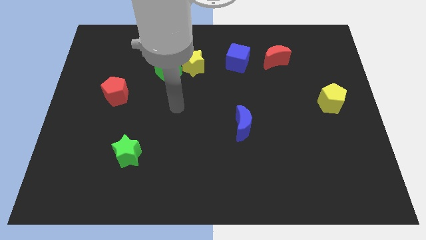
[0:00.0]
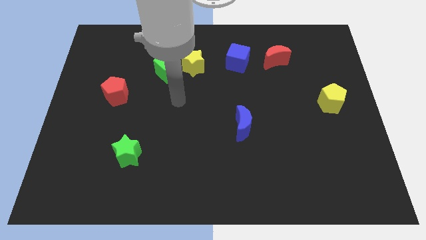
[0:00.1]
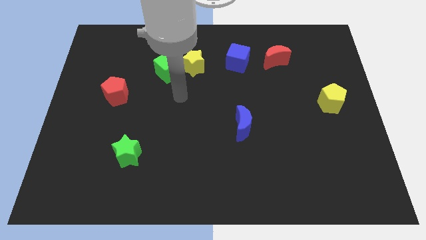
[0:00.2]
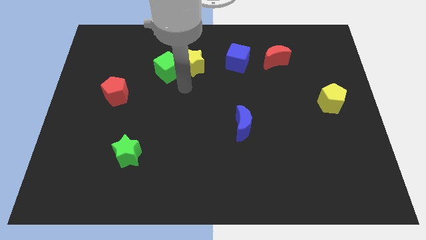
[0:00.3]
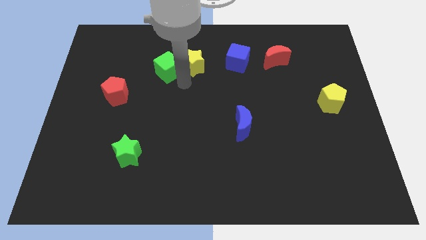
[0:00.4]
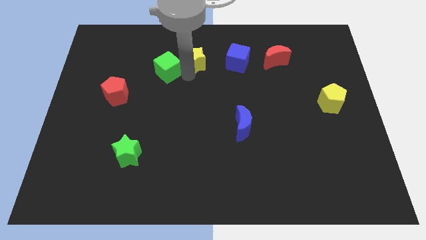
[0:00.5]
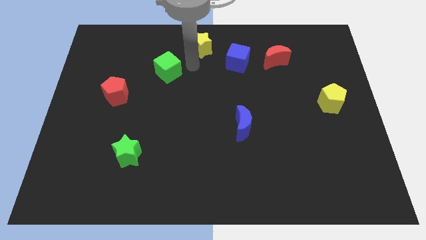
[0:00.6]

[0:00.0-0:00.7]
pull the green cube apart from the yellow star

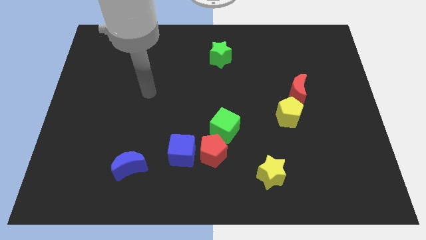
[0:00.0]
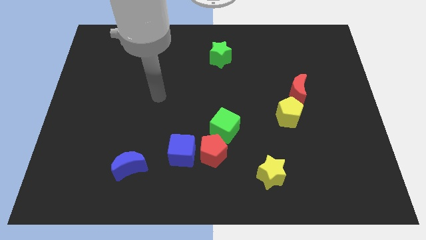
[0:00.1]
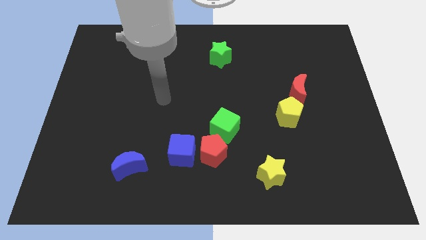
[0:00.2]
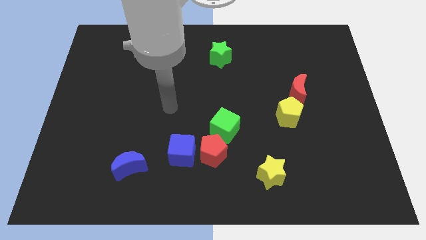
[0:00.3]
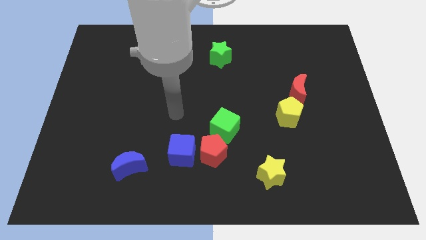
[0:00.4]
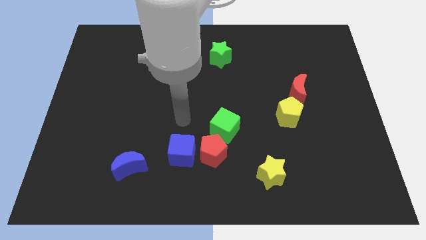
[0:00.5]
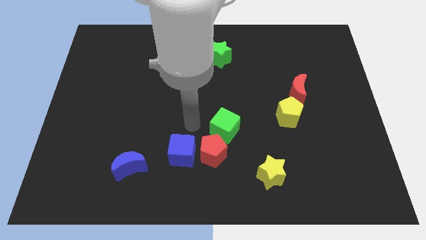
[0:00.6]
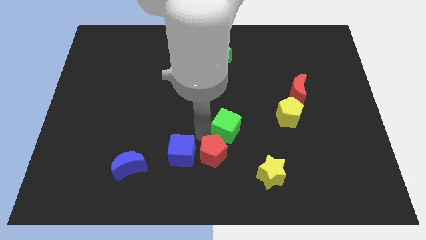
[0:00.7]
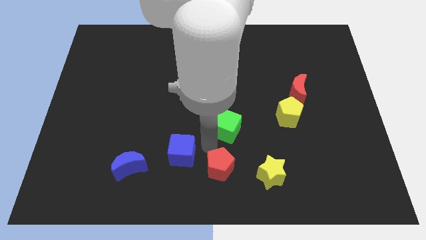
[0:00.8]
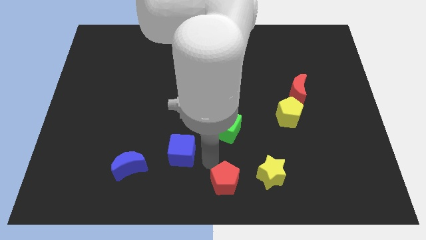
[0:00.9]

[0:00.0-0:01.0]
move the blue cube away from the red pentagon

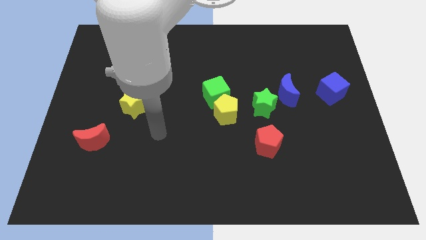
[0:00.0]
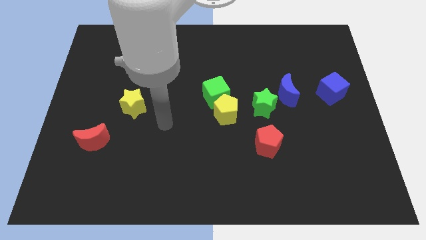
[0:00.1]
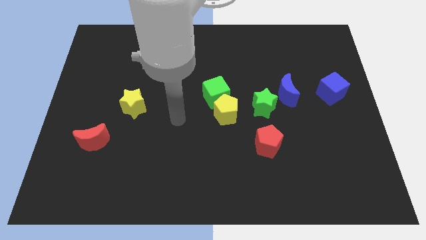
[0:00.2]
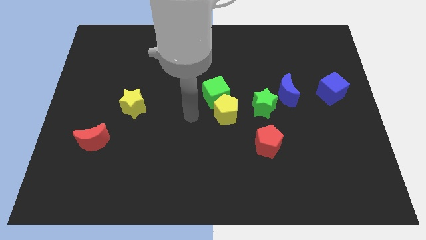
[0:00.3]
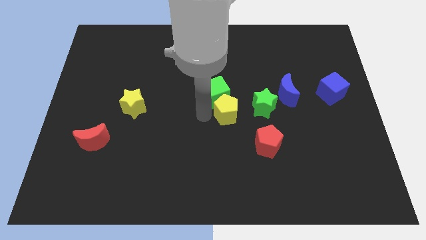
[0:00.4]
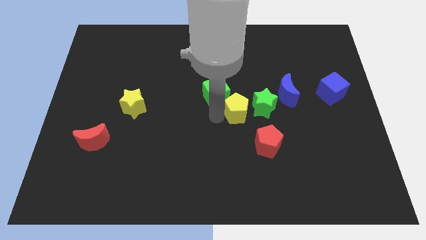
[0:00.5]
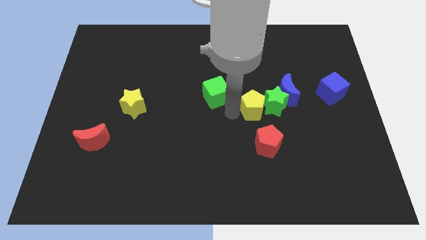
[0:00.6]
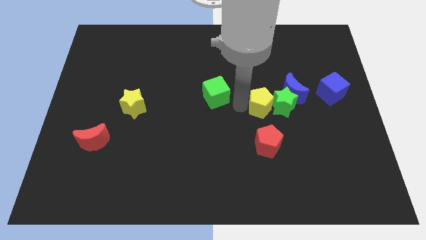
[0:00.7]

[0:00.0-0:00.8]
pull the green cube apart from the yellow pentagon

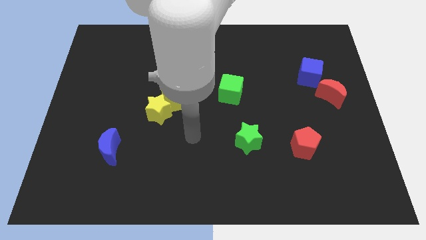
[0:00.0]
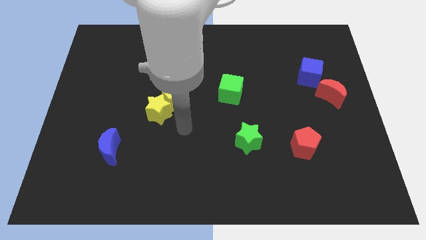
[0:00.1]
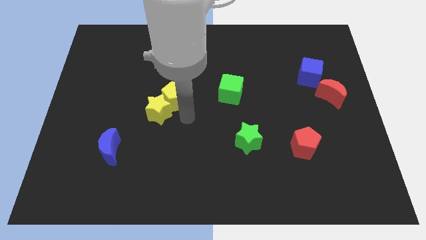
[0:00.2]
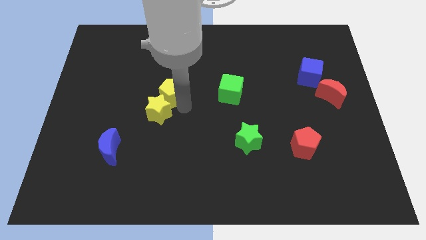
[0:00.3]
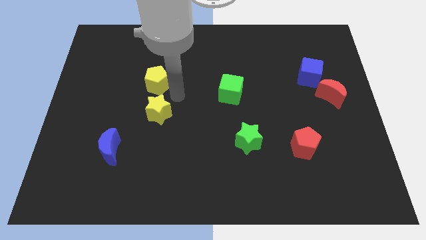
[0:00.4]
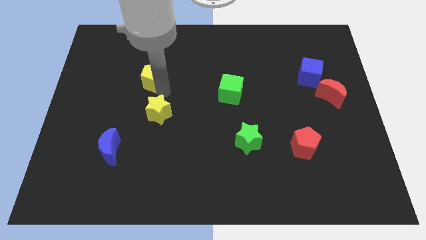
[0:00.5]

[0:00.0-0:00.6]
move the yellow star away from the yellow pentagon

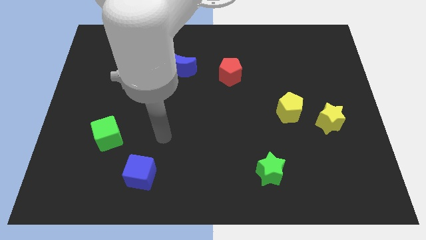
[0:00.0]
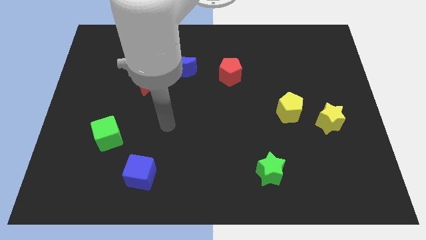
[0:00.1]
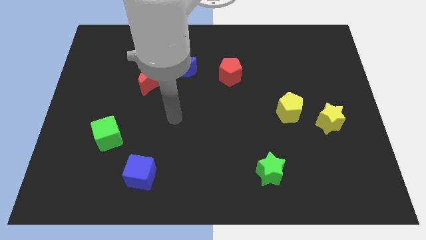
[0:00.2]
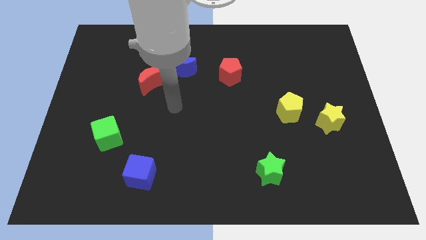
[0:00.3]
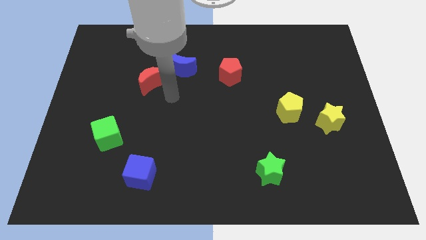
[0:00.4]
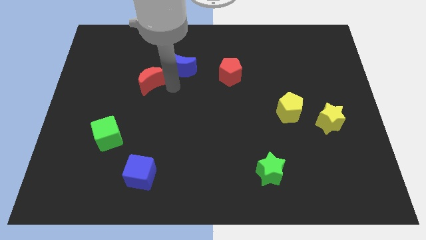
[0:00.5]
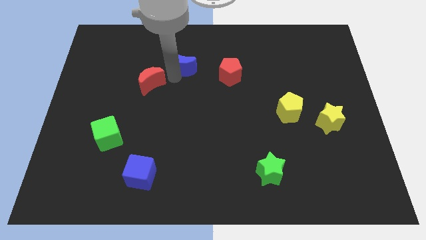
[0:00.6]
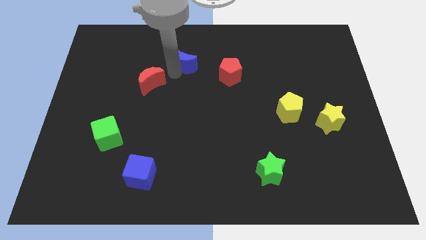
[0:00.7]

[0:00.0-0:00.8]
move the red moon away from the blue moon

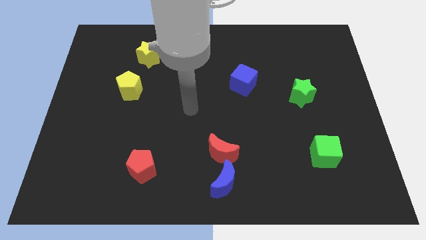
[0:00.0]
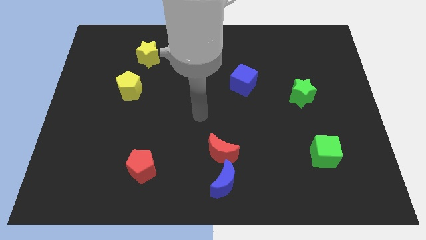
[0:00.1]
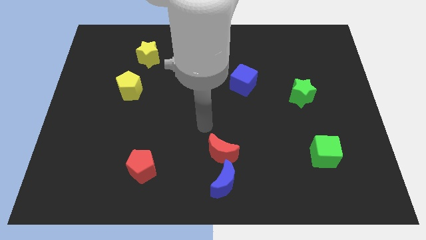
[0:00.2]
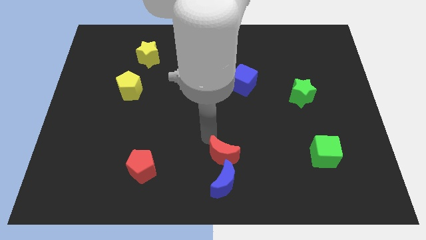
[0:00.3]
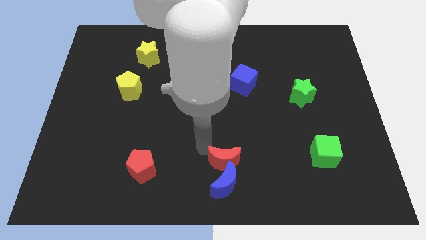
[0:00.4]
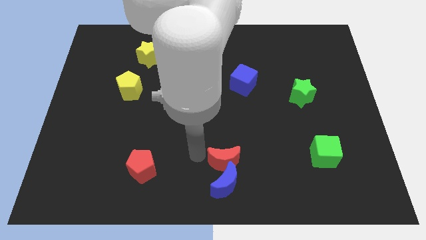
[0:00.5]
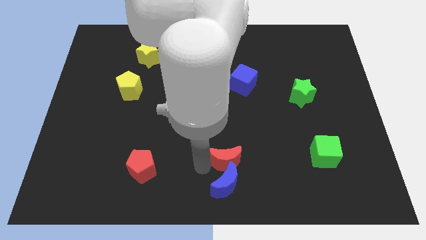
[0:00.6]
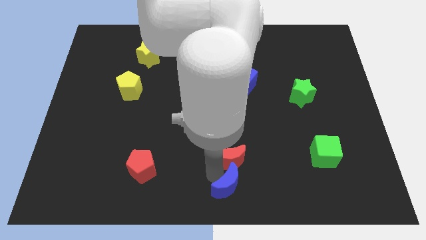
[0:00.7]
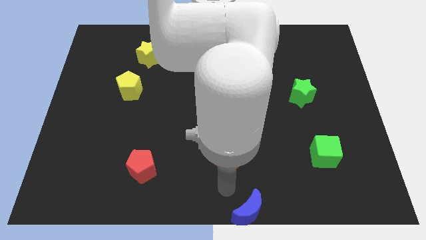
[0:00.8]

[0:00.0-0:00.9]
pull the red moon apart from the blue moon

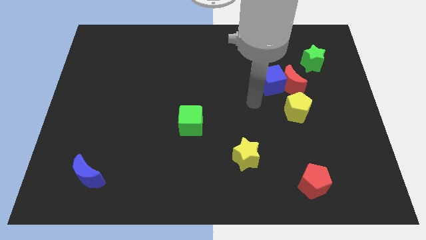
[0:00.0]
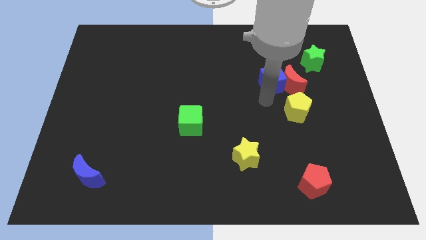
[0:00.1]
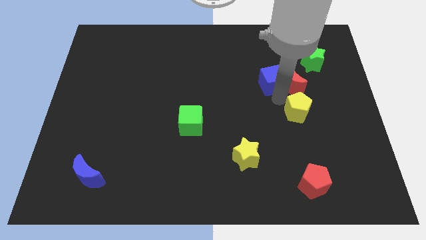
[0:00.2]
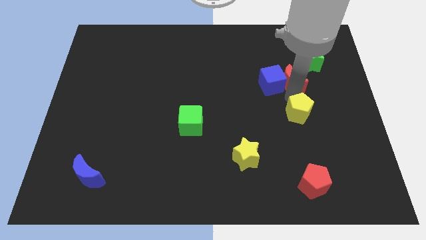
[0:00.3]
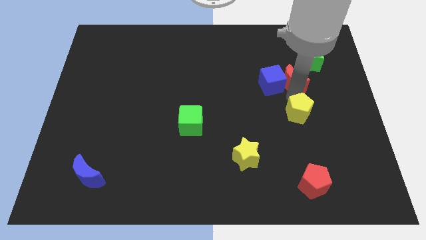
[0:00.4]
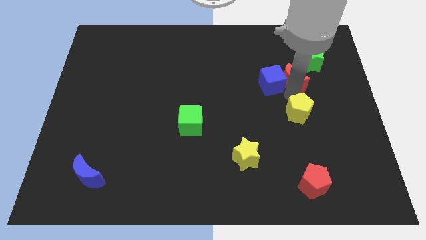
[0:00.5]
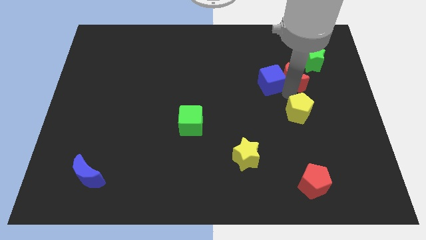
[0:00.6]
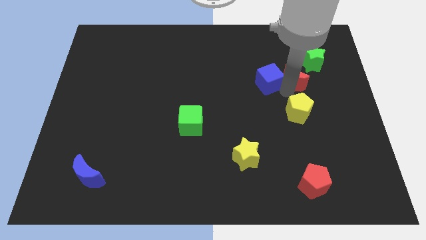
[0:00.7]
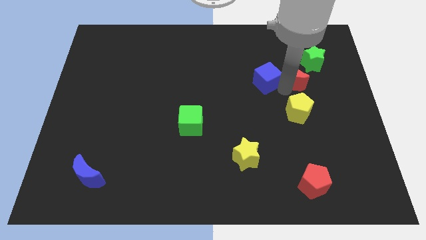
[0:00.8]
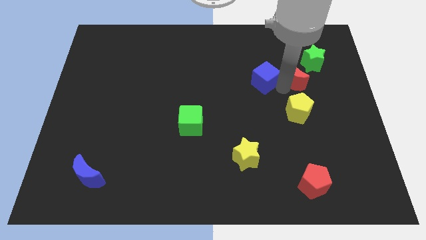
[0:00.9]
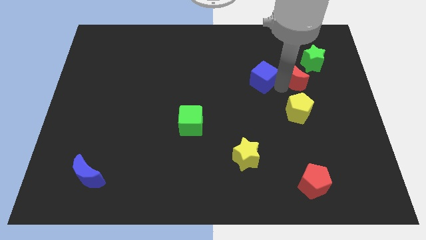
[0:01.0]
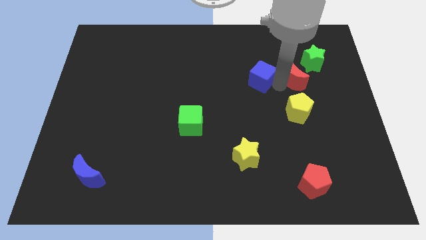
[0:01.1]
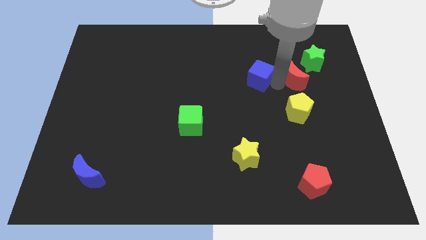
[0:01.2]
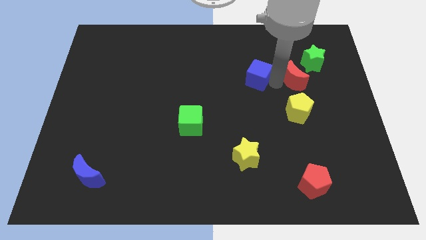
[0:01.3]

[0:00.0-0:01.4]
separate the blue cube from the red moon and yellow pentagon

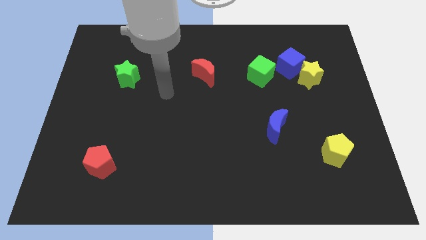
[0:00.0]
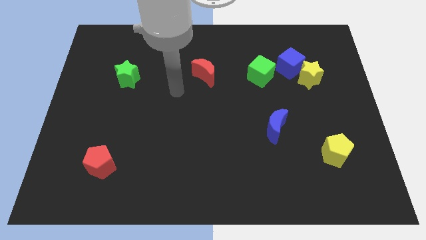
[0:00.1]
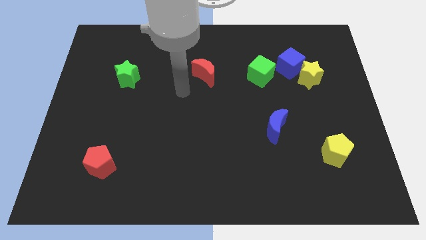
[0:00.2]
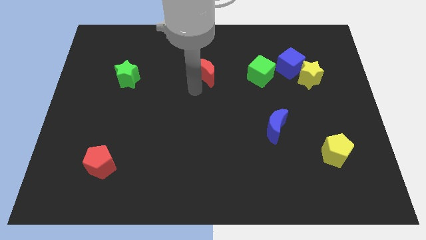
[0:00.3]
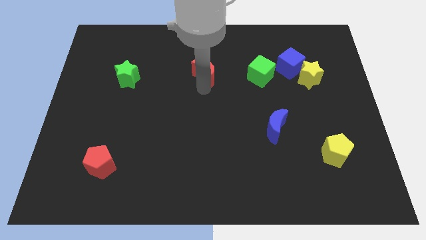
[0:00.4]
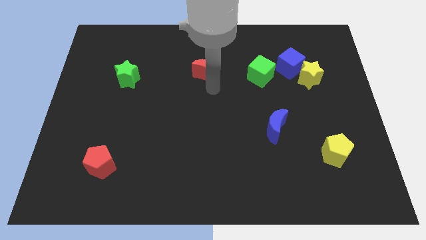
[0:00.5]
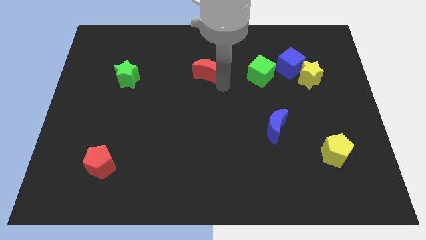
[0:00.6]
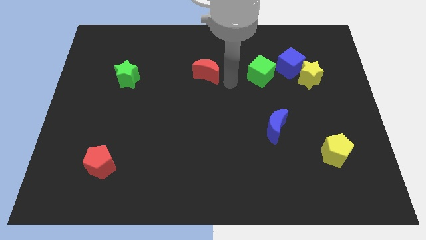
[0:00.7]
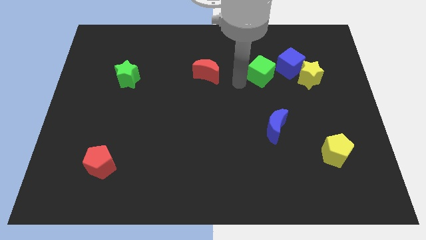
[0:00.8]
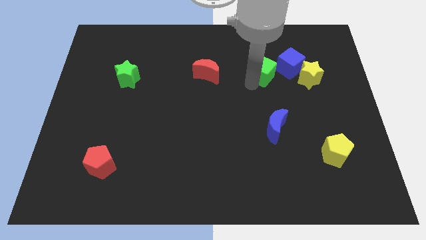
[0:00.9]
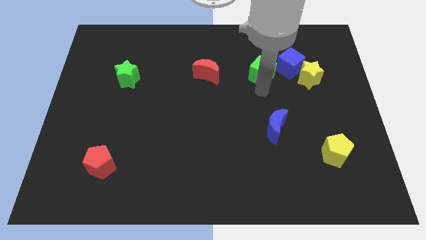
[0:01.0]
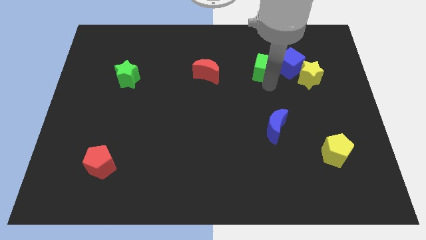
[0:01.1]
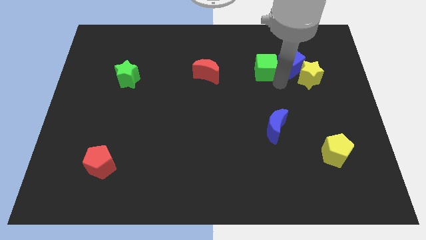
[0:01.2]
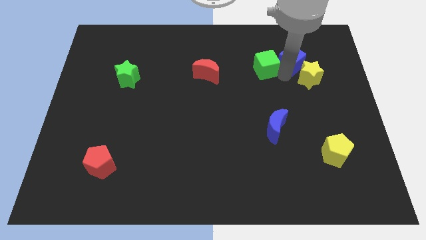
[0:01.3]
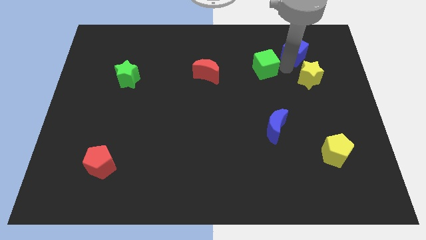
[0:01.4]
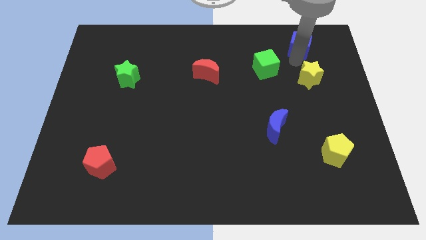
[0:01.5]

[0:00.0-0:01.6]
separate the yellow star from the blue cube

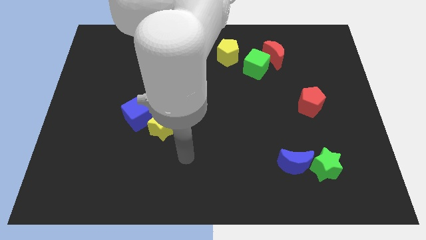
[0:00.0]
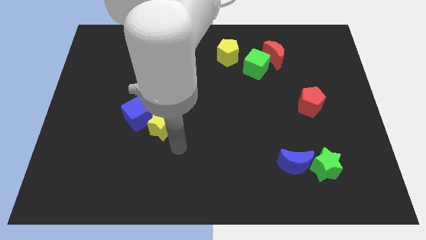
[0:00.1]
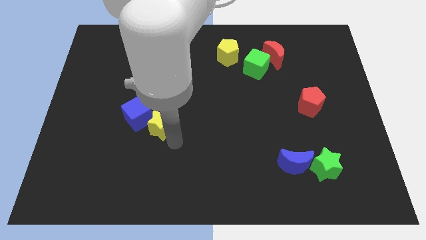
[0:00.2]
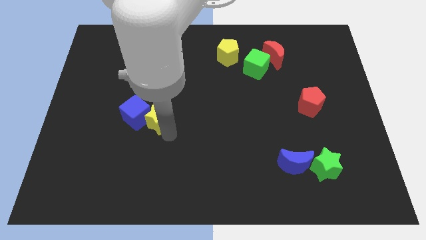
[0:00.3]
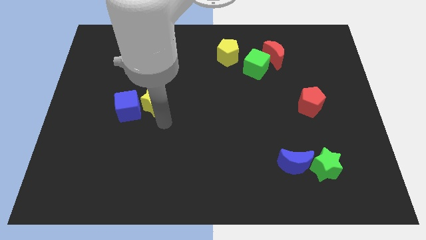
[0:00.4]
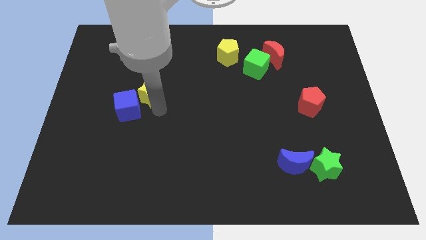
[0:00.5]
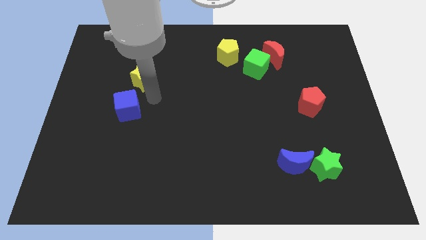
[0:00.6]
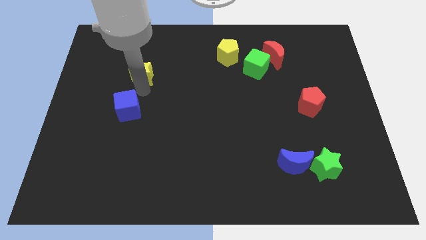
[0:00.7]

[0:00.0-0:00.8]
separate the blue cube from the yellow star

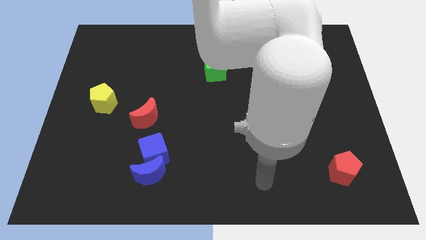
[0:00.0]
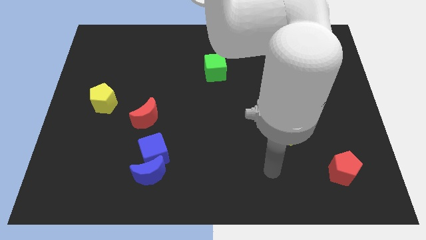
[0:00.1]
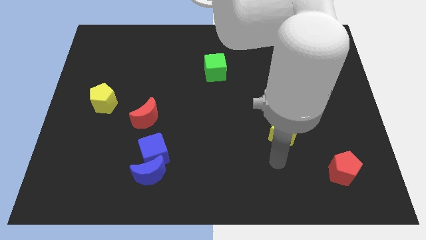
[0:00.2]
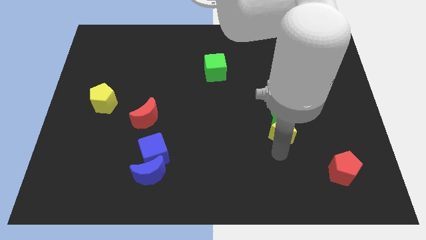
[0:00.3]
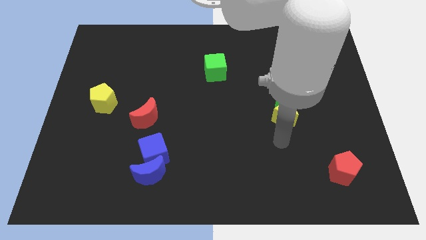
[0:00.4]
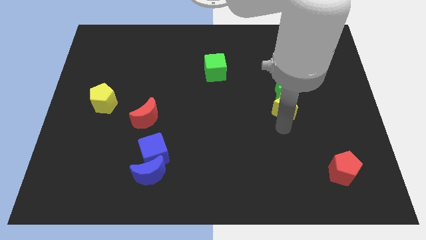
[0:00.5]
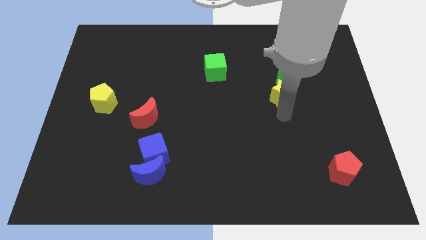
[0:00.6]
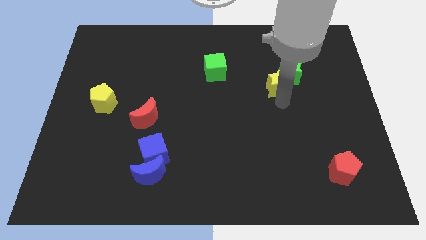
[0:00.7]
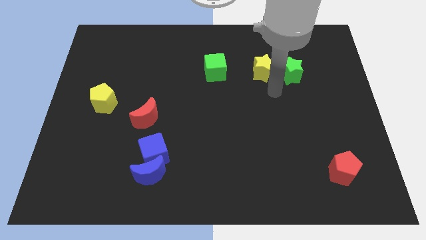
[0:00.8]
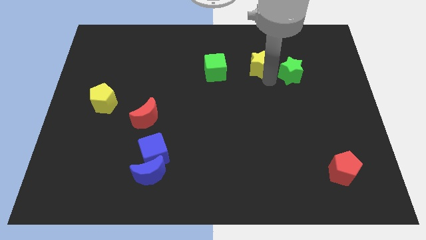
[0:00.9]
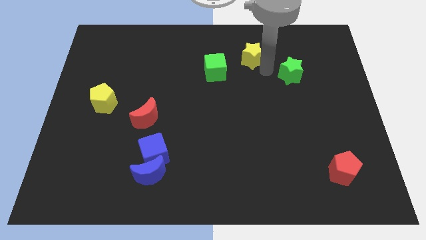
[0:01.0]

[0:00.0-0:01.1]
separate the green star from the yellow star
